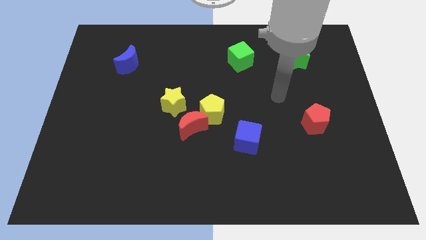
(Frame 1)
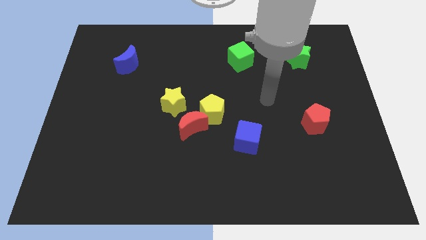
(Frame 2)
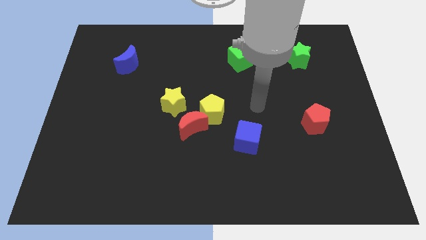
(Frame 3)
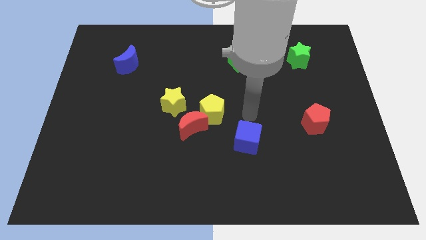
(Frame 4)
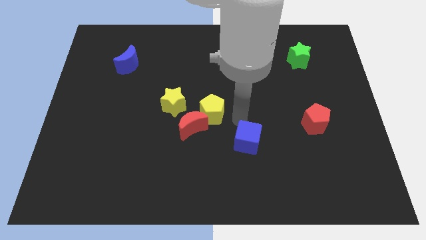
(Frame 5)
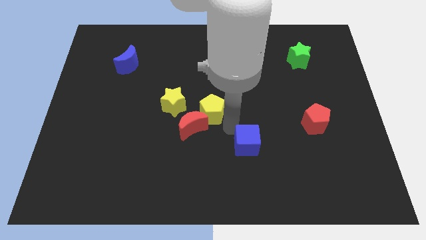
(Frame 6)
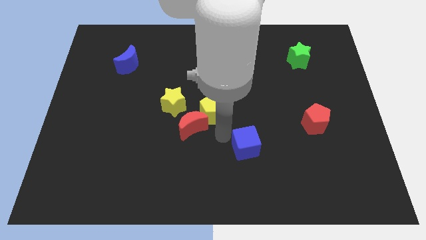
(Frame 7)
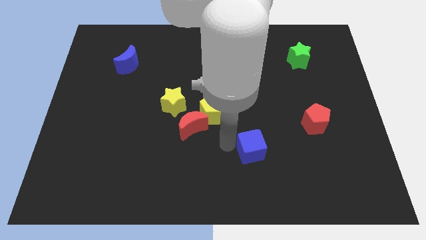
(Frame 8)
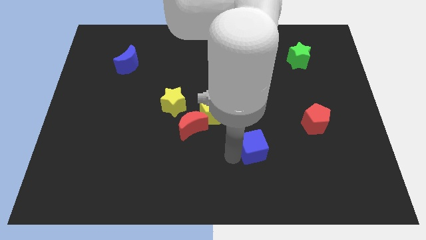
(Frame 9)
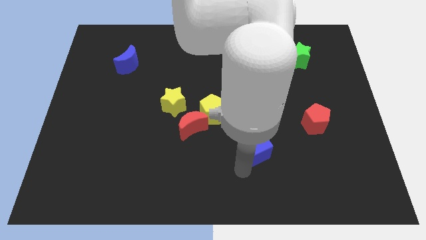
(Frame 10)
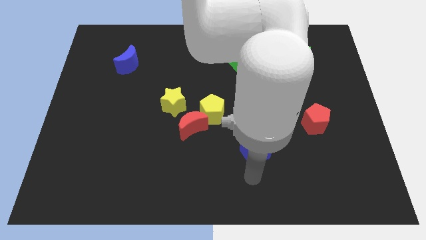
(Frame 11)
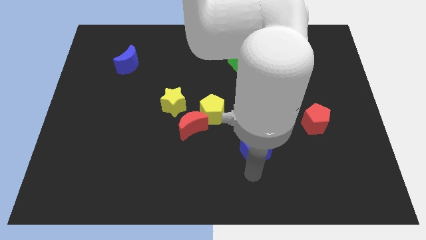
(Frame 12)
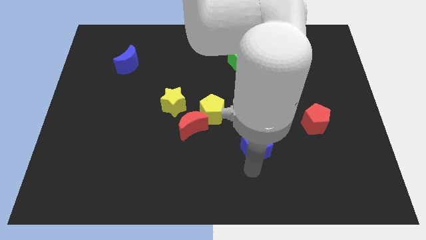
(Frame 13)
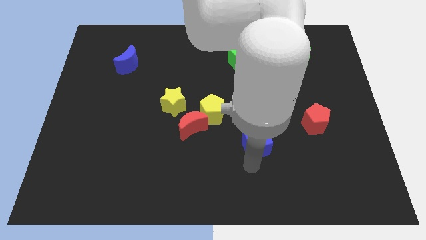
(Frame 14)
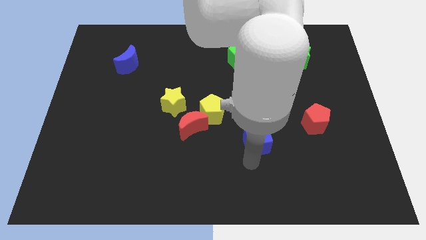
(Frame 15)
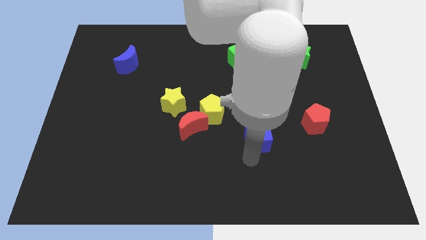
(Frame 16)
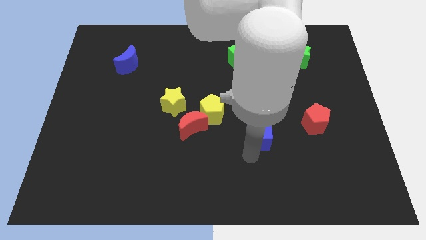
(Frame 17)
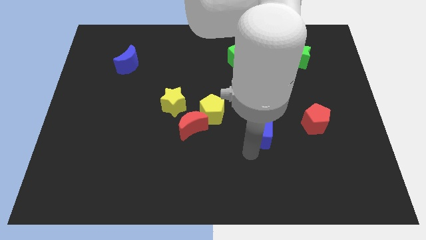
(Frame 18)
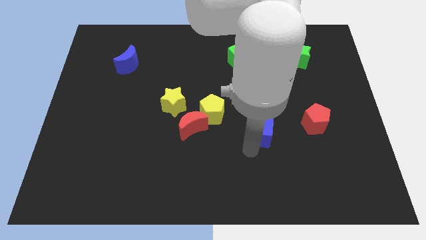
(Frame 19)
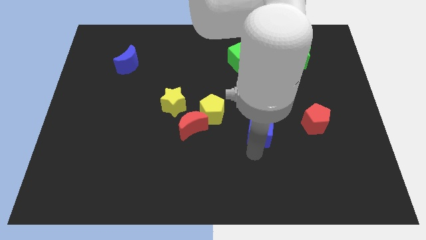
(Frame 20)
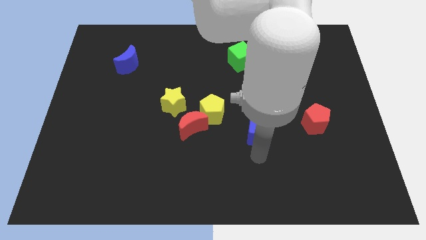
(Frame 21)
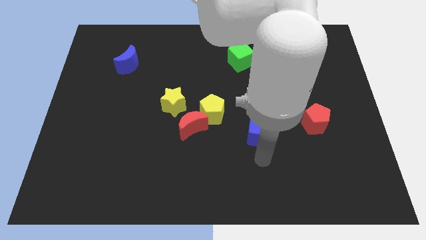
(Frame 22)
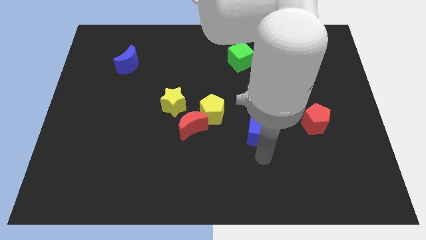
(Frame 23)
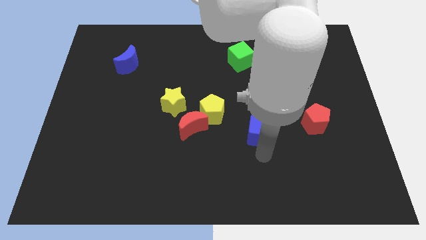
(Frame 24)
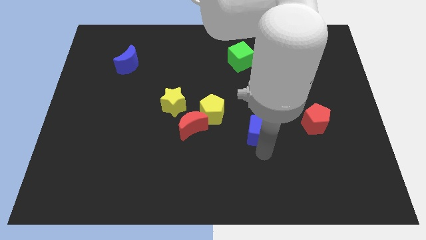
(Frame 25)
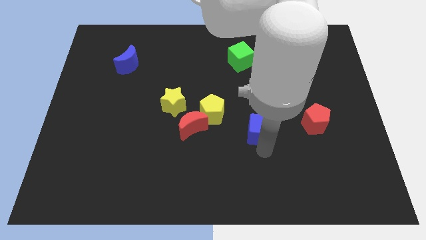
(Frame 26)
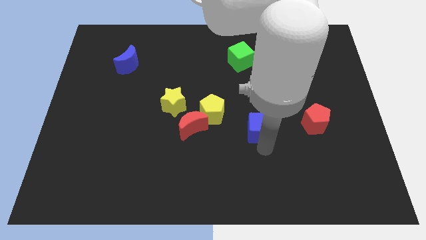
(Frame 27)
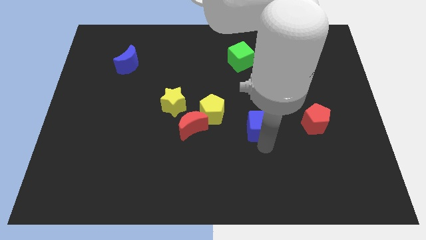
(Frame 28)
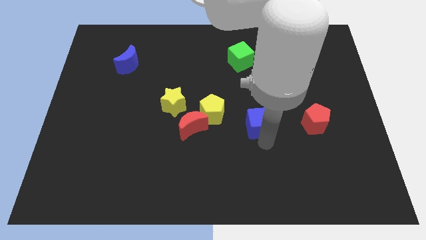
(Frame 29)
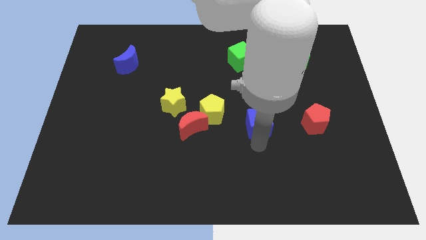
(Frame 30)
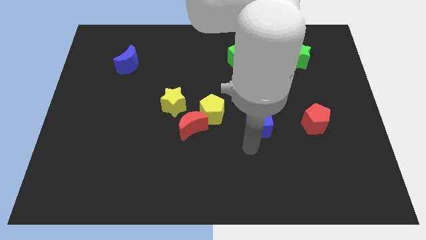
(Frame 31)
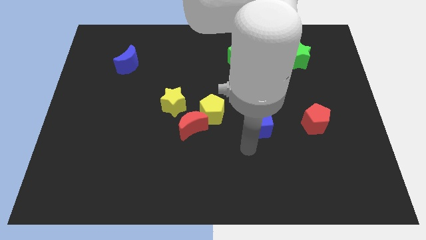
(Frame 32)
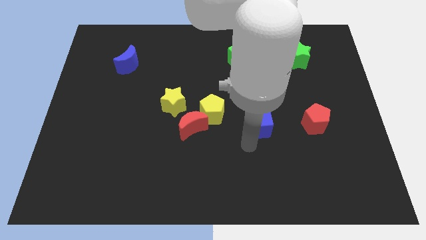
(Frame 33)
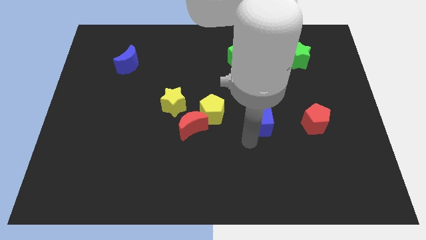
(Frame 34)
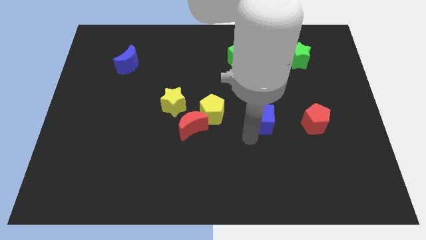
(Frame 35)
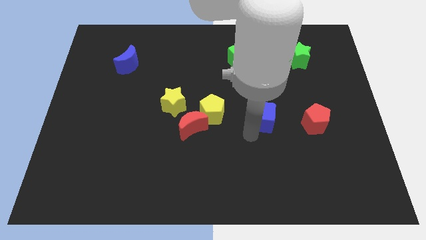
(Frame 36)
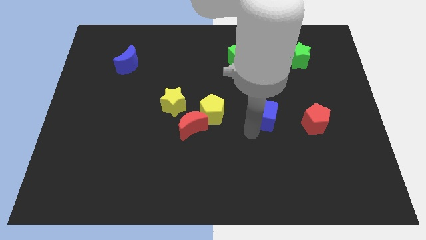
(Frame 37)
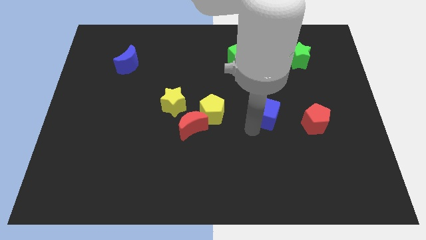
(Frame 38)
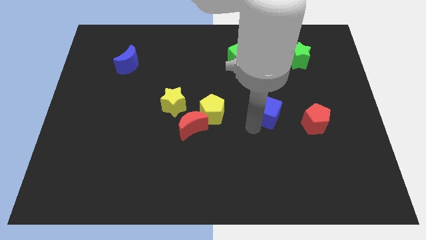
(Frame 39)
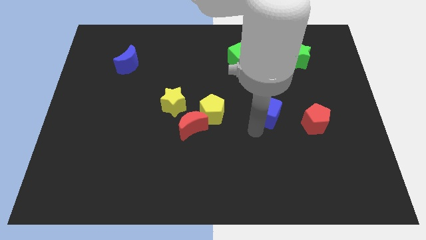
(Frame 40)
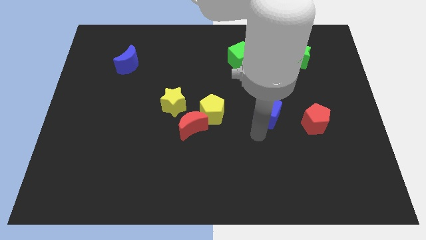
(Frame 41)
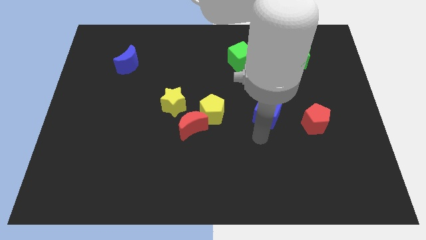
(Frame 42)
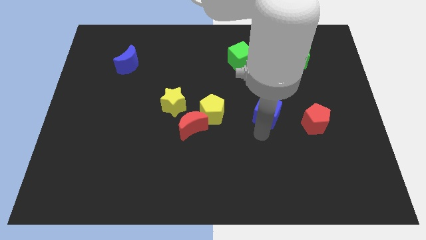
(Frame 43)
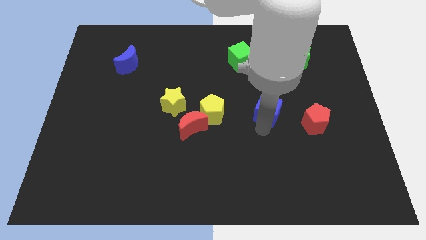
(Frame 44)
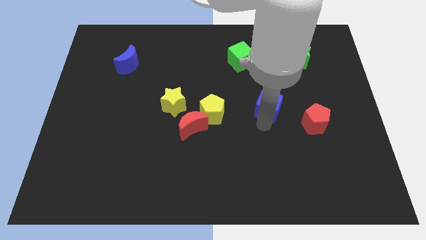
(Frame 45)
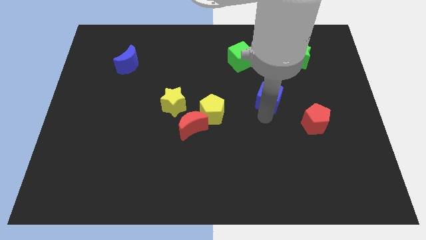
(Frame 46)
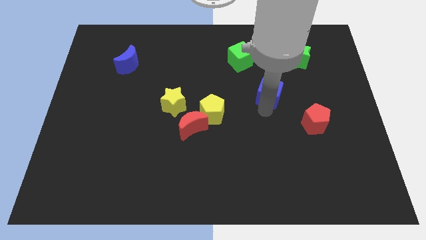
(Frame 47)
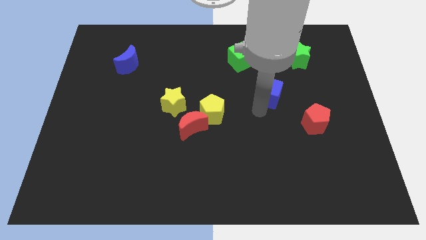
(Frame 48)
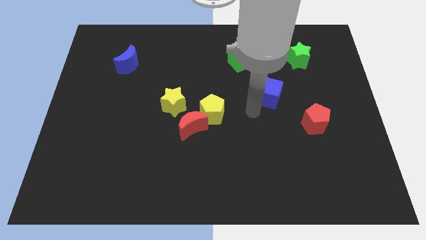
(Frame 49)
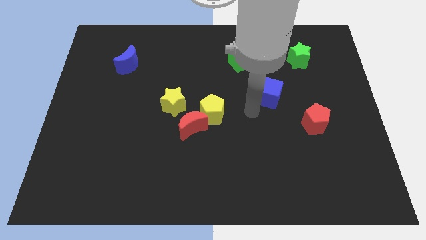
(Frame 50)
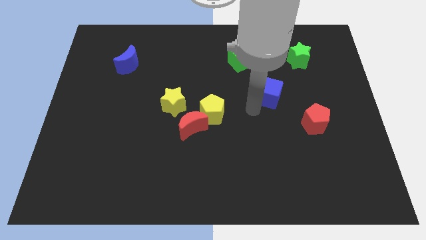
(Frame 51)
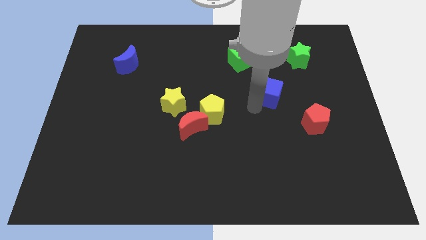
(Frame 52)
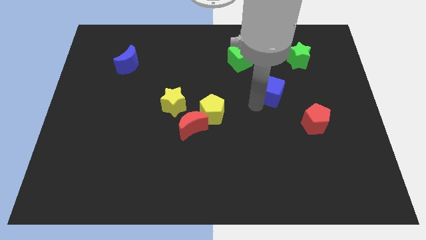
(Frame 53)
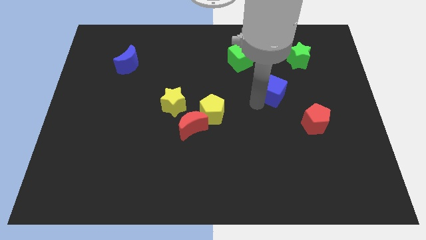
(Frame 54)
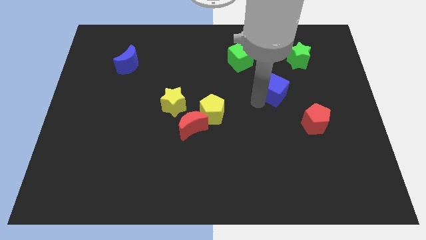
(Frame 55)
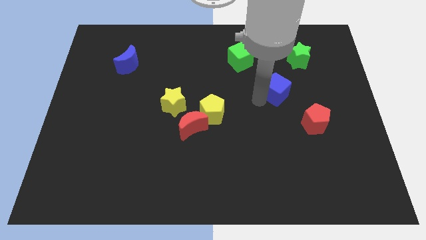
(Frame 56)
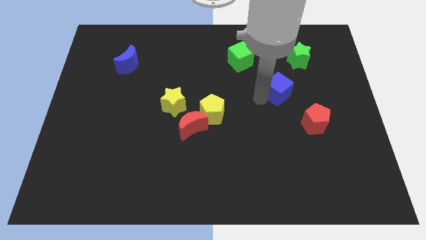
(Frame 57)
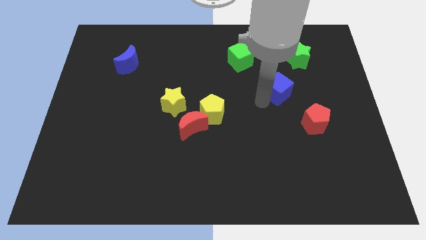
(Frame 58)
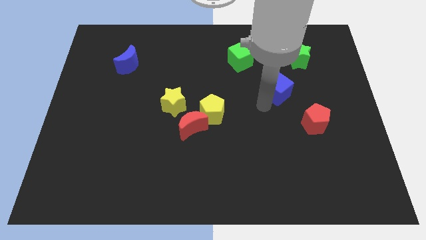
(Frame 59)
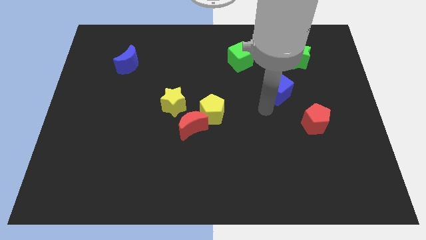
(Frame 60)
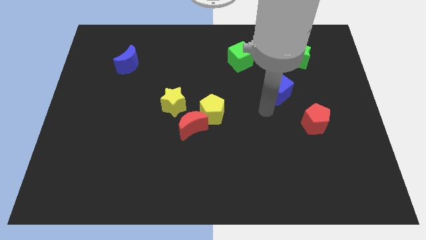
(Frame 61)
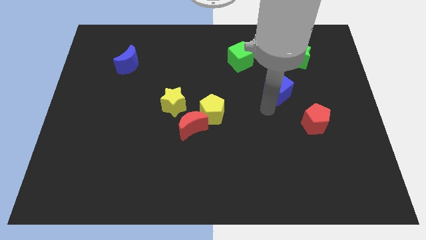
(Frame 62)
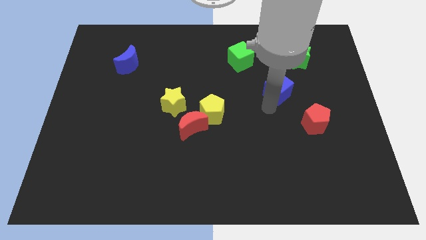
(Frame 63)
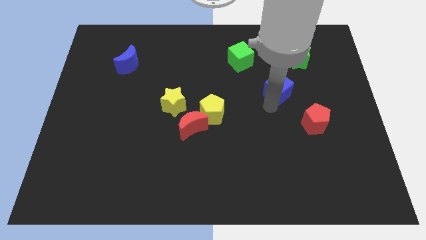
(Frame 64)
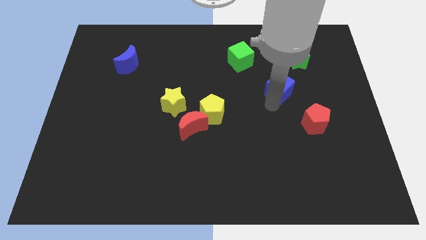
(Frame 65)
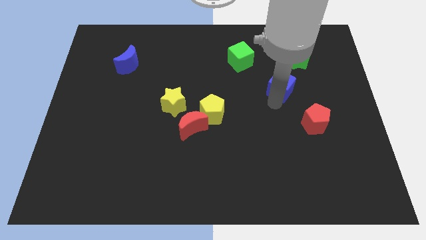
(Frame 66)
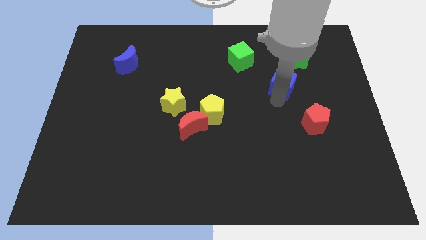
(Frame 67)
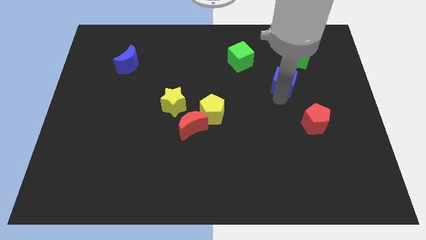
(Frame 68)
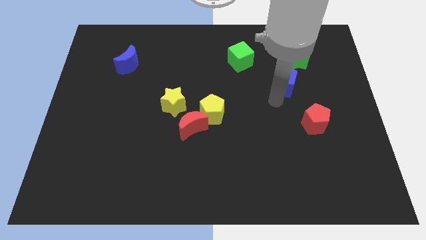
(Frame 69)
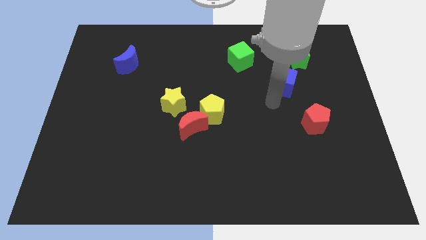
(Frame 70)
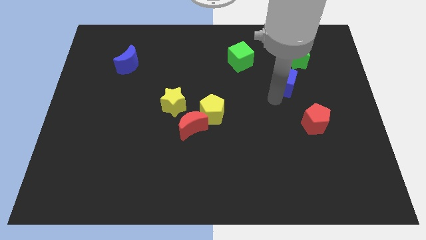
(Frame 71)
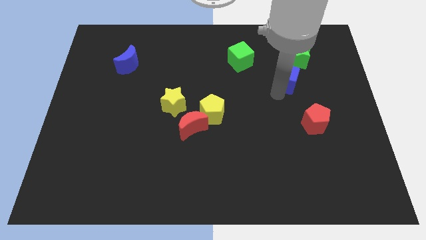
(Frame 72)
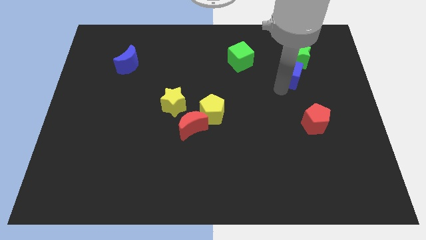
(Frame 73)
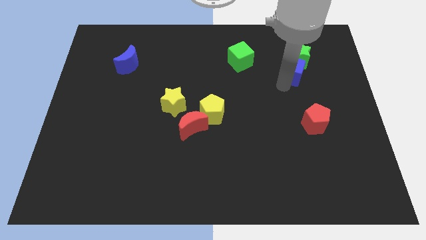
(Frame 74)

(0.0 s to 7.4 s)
push the blue cube next to the green star
